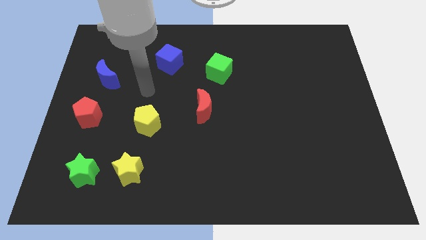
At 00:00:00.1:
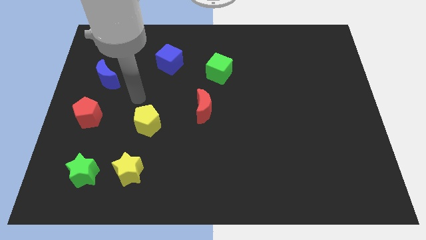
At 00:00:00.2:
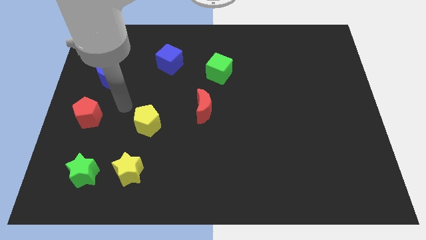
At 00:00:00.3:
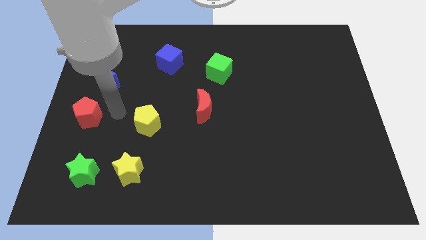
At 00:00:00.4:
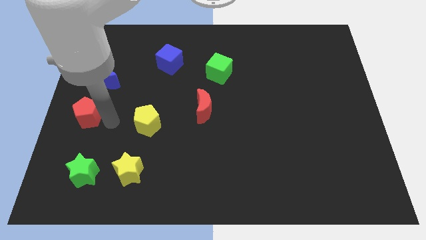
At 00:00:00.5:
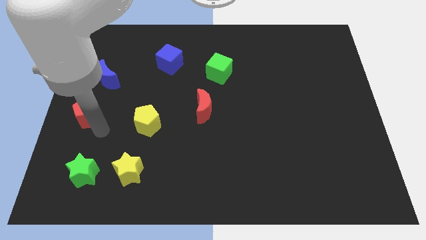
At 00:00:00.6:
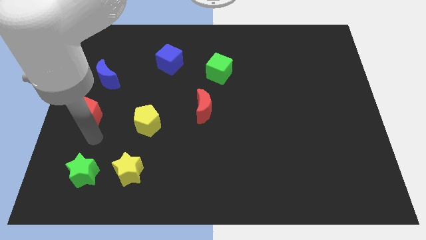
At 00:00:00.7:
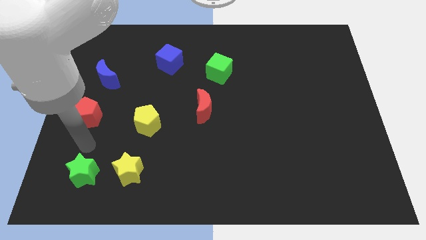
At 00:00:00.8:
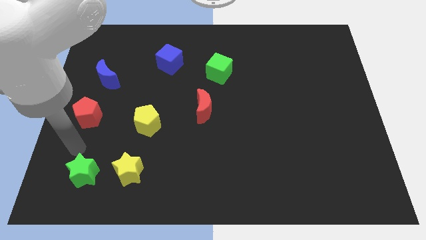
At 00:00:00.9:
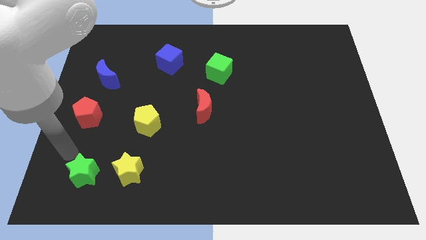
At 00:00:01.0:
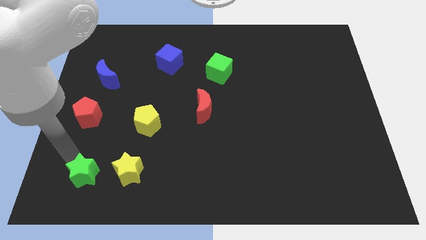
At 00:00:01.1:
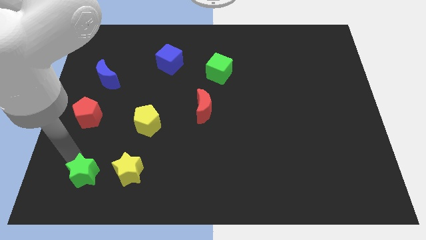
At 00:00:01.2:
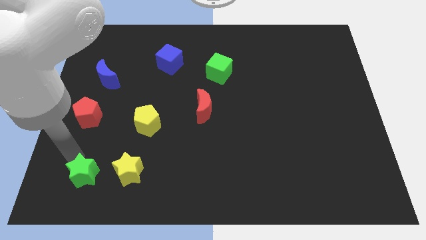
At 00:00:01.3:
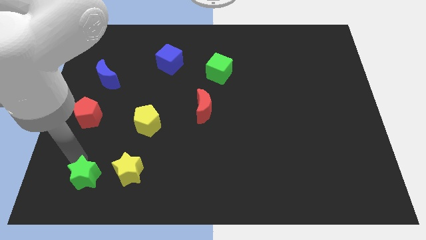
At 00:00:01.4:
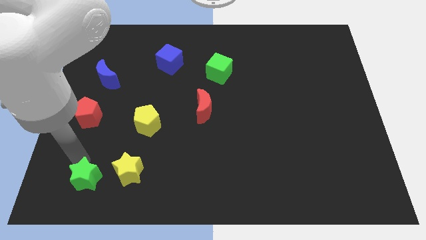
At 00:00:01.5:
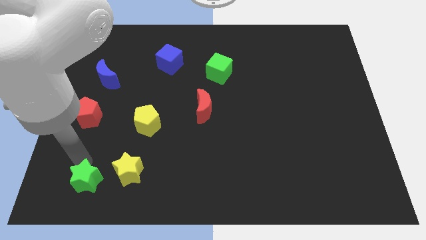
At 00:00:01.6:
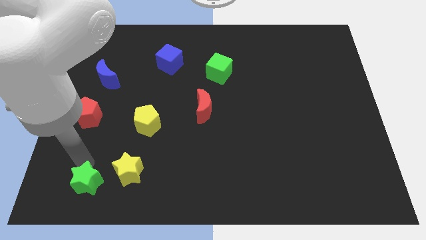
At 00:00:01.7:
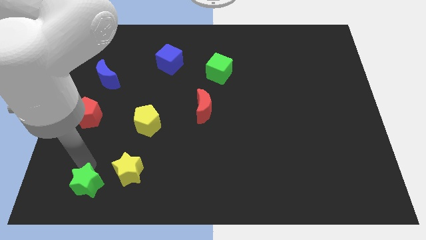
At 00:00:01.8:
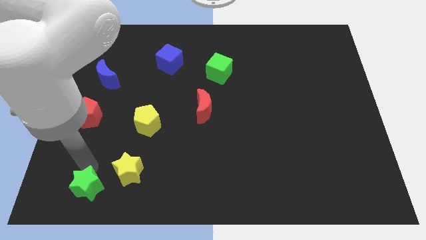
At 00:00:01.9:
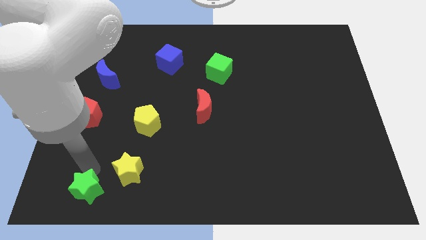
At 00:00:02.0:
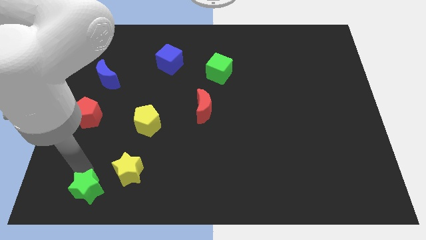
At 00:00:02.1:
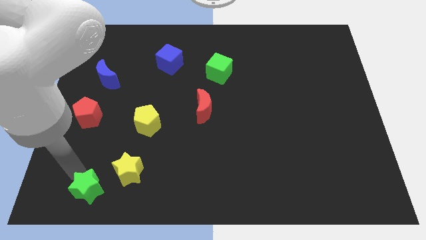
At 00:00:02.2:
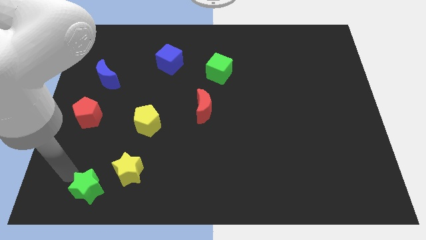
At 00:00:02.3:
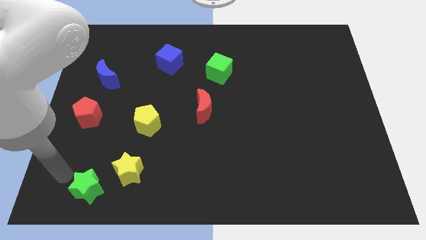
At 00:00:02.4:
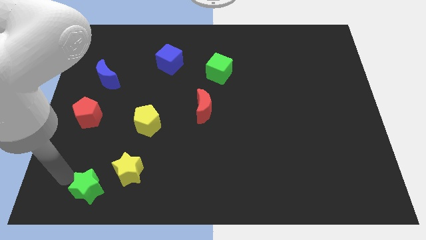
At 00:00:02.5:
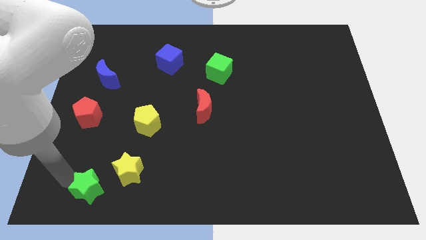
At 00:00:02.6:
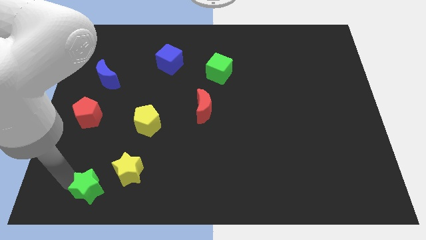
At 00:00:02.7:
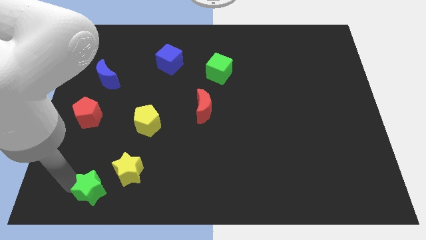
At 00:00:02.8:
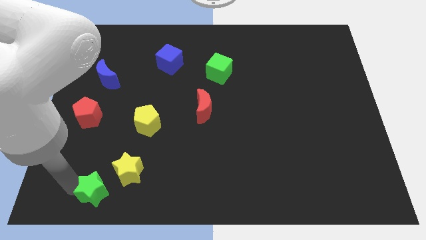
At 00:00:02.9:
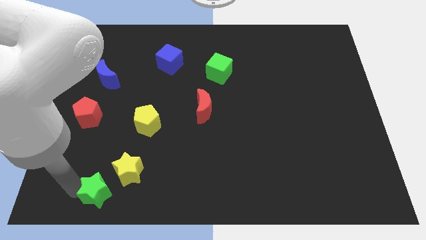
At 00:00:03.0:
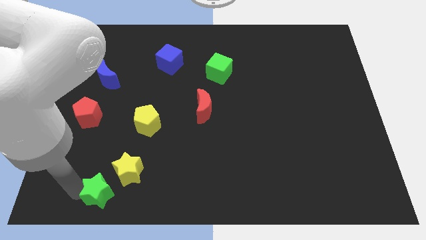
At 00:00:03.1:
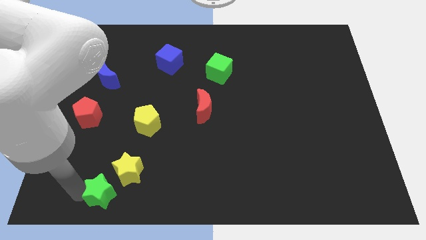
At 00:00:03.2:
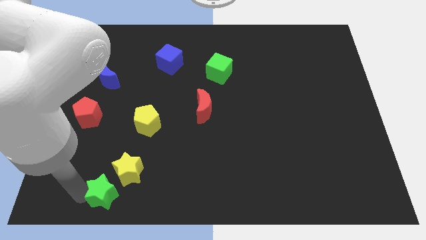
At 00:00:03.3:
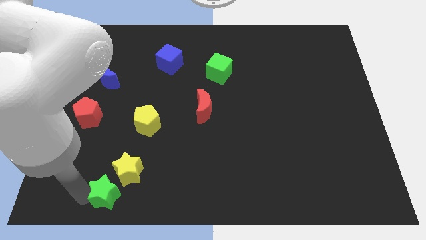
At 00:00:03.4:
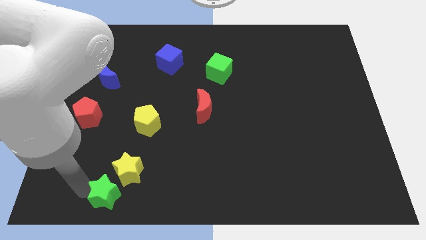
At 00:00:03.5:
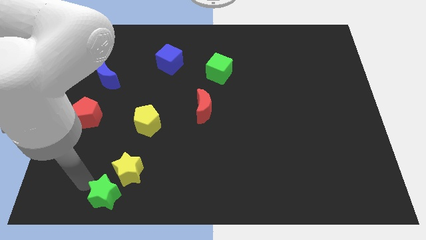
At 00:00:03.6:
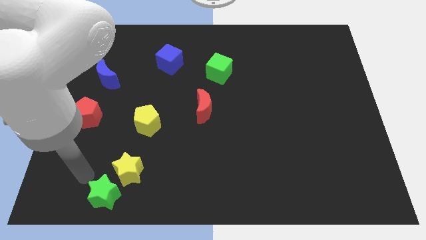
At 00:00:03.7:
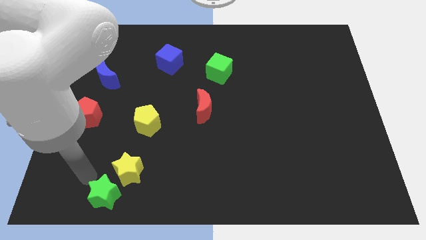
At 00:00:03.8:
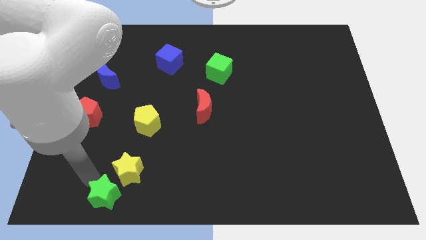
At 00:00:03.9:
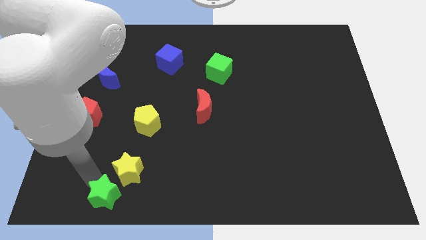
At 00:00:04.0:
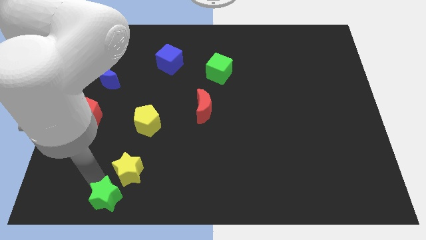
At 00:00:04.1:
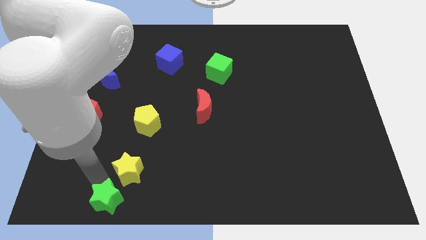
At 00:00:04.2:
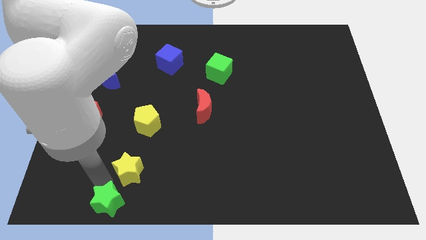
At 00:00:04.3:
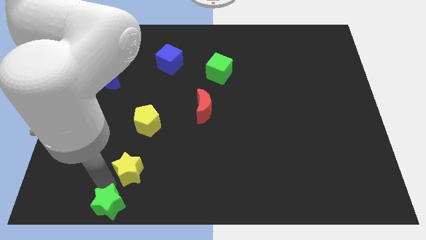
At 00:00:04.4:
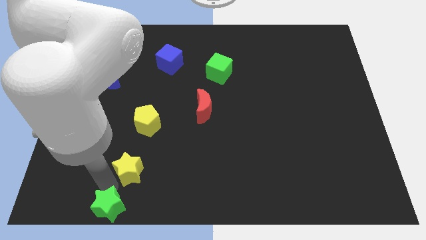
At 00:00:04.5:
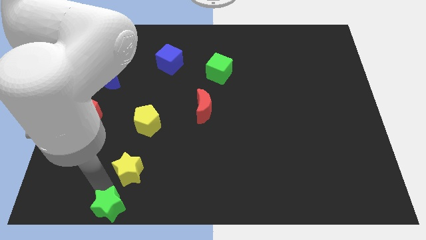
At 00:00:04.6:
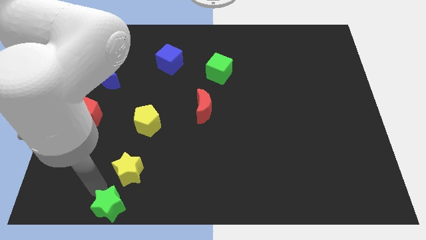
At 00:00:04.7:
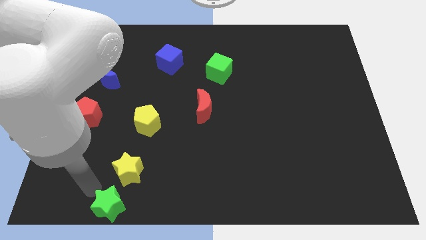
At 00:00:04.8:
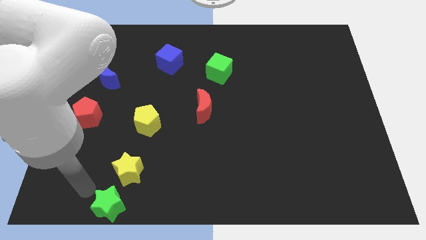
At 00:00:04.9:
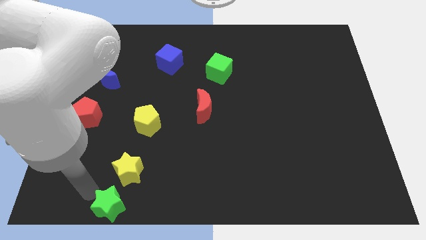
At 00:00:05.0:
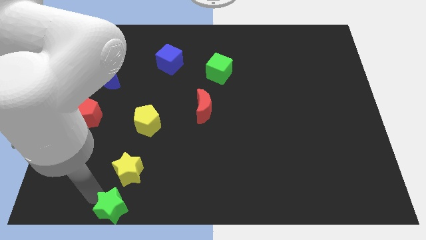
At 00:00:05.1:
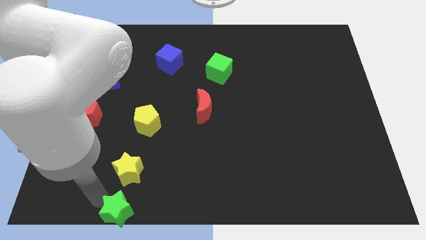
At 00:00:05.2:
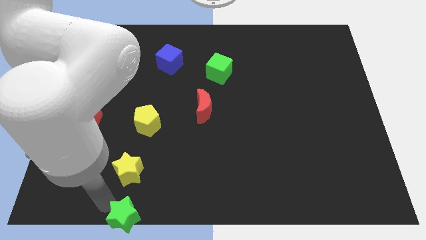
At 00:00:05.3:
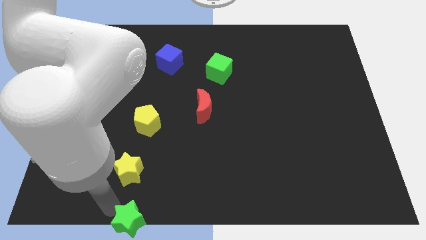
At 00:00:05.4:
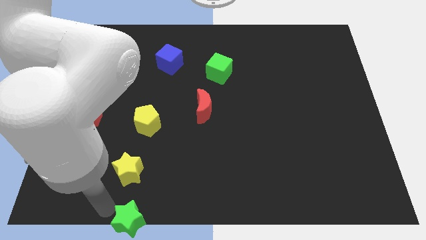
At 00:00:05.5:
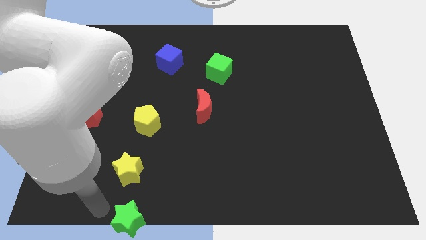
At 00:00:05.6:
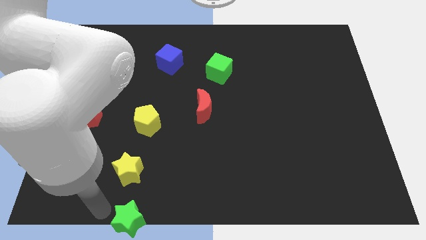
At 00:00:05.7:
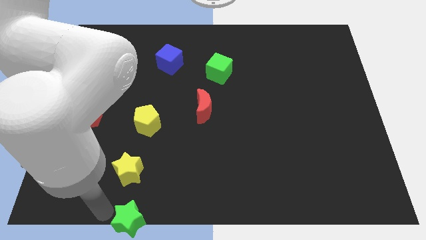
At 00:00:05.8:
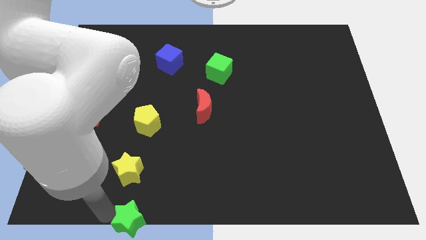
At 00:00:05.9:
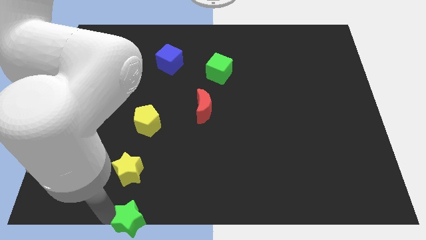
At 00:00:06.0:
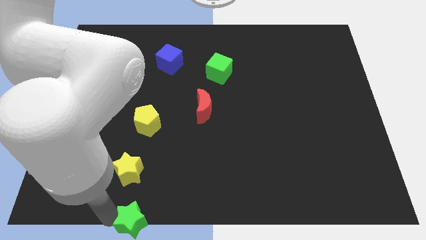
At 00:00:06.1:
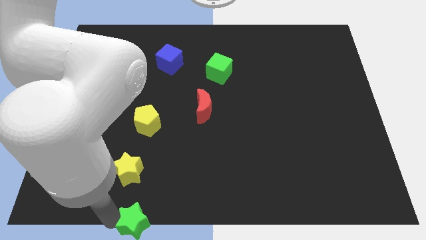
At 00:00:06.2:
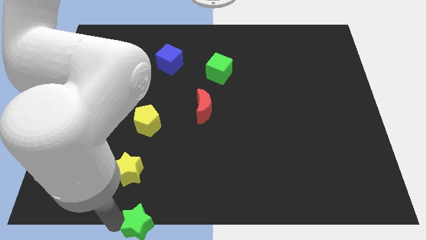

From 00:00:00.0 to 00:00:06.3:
move the green star to the bottom

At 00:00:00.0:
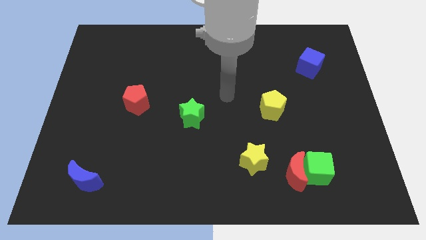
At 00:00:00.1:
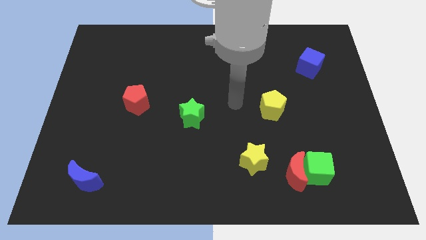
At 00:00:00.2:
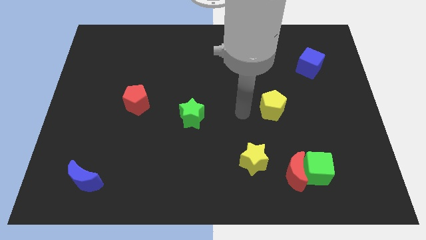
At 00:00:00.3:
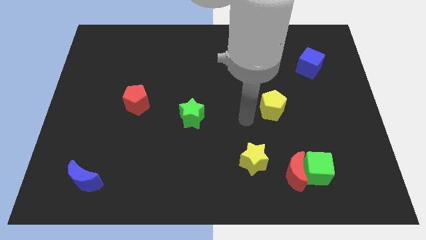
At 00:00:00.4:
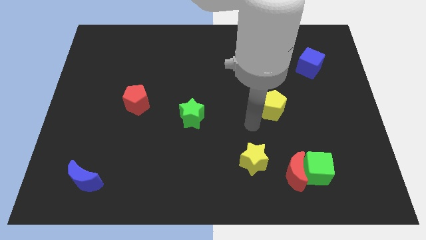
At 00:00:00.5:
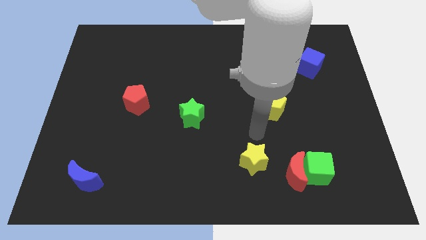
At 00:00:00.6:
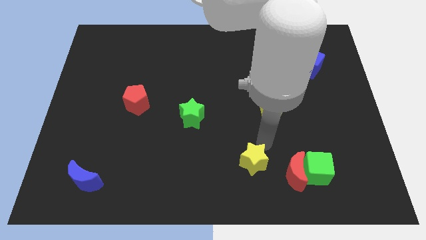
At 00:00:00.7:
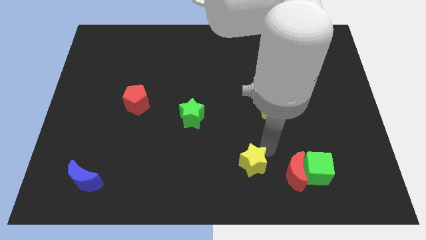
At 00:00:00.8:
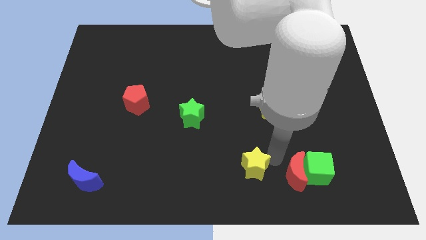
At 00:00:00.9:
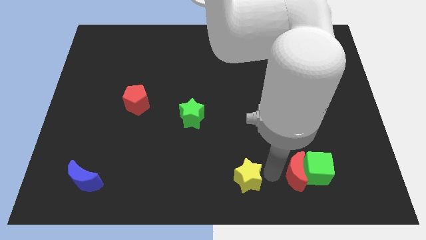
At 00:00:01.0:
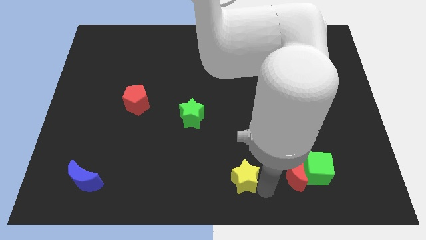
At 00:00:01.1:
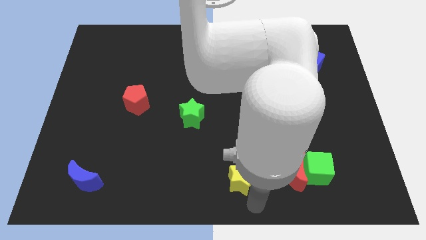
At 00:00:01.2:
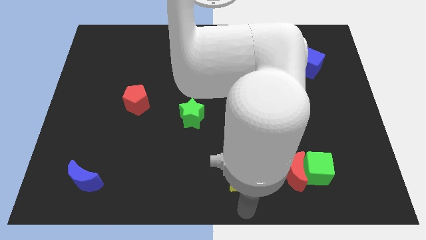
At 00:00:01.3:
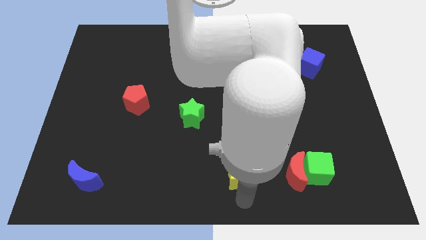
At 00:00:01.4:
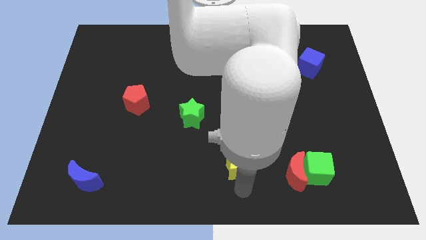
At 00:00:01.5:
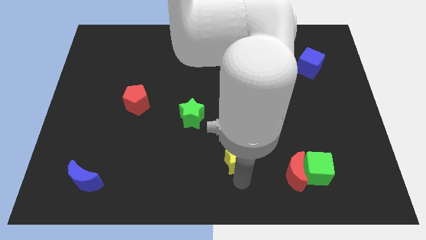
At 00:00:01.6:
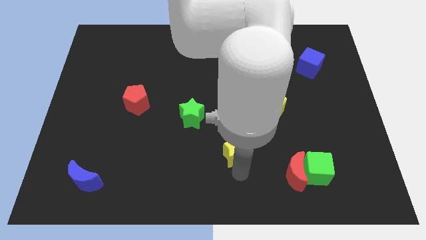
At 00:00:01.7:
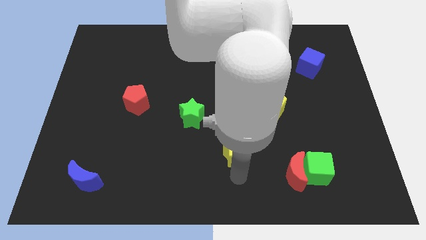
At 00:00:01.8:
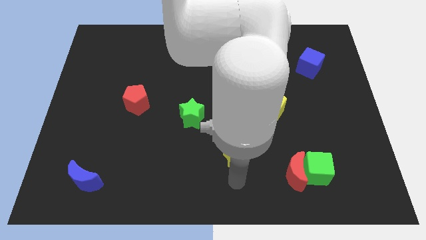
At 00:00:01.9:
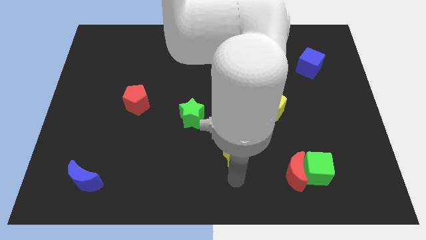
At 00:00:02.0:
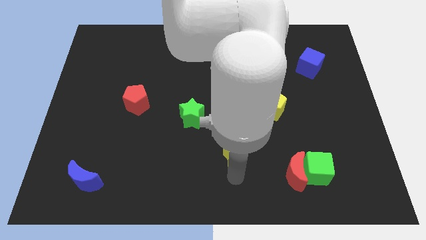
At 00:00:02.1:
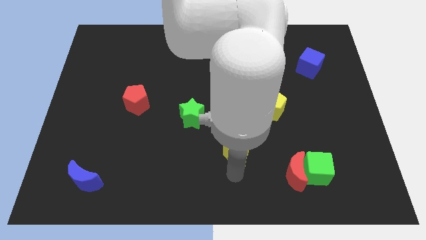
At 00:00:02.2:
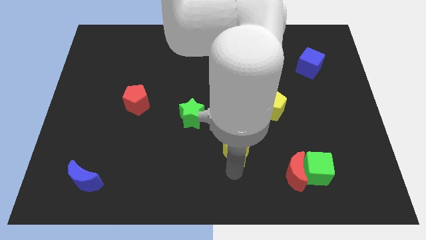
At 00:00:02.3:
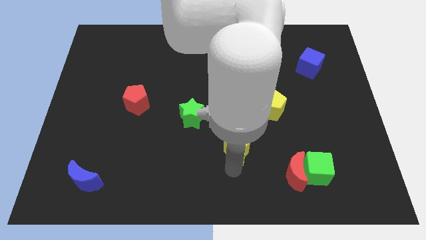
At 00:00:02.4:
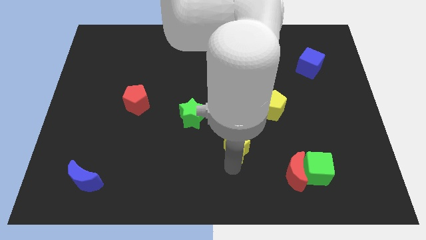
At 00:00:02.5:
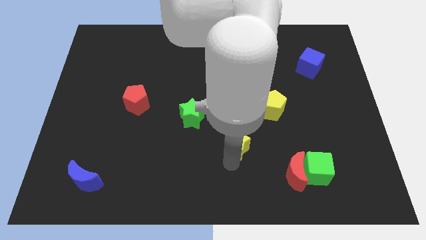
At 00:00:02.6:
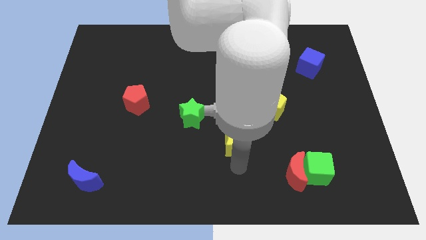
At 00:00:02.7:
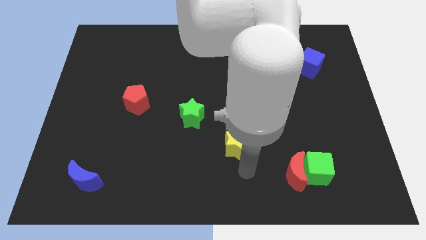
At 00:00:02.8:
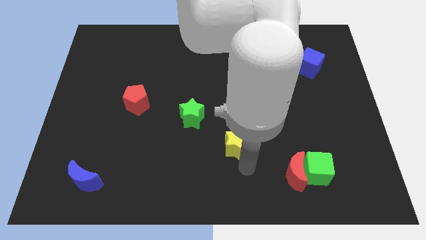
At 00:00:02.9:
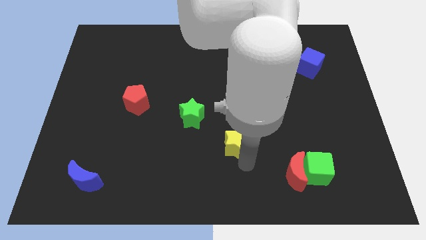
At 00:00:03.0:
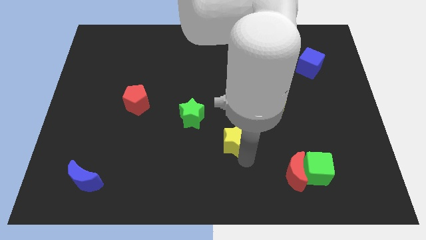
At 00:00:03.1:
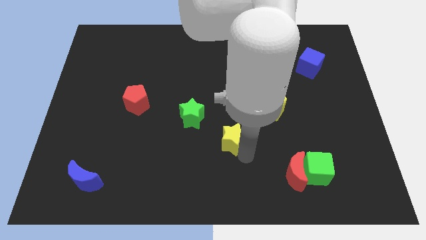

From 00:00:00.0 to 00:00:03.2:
put the yellow star to the middle
